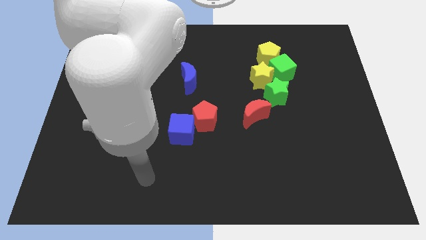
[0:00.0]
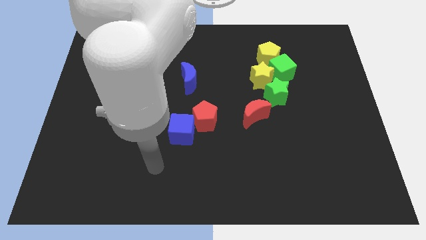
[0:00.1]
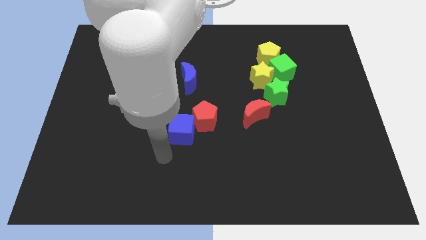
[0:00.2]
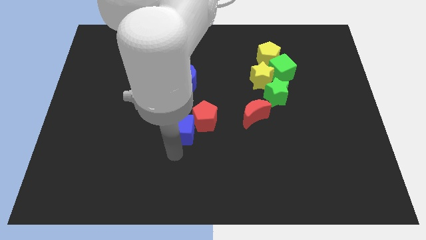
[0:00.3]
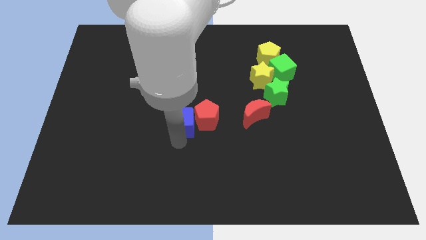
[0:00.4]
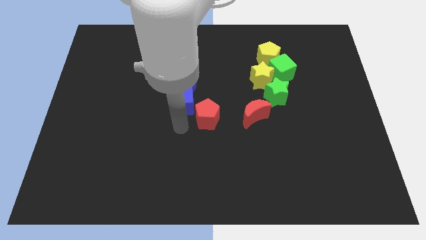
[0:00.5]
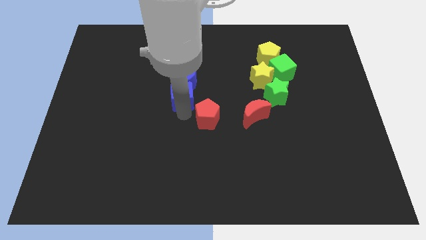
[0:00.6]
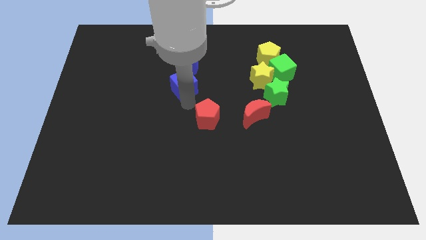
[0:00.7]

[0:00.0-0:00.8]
separate the red pentagon from the blue cube

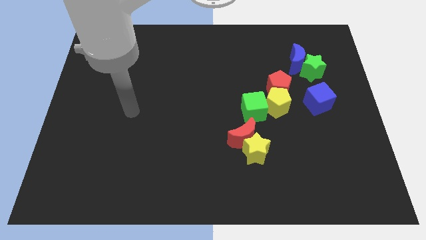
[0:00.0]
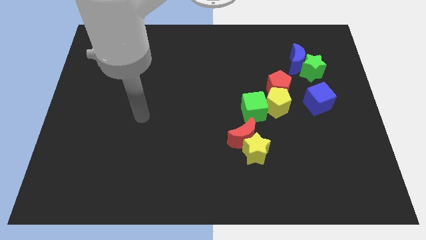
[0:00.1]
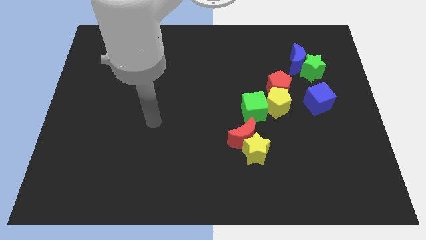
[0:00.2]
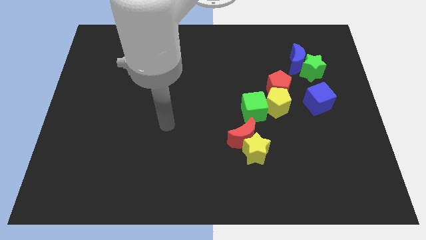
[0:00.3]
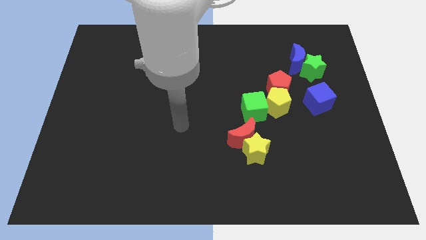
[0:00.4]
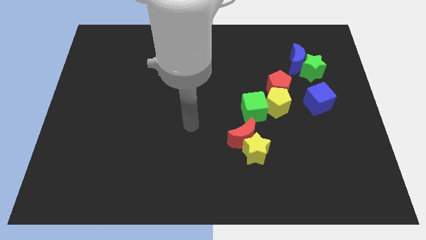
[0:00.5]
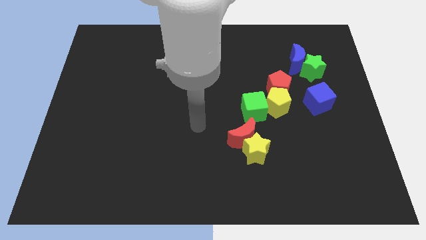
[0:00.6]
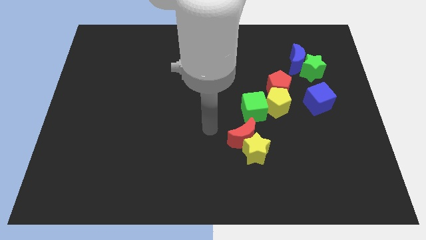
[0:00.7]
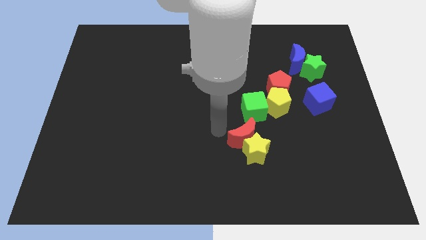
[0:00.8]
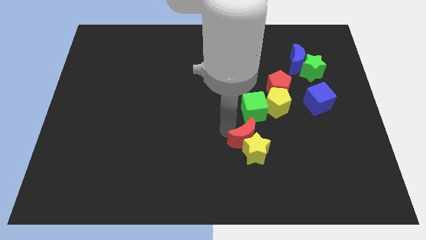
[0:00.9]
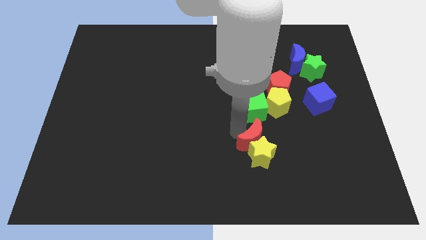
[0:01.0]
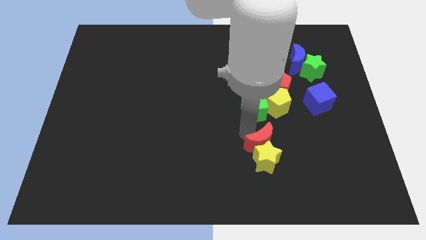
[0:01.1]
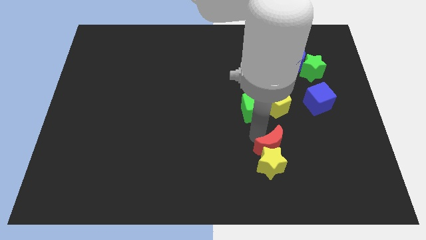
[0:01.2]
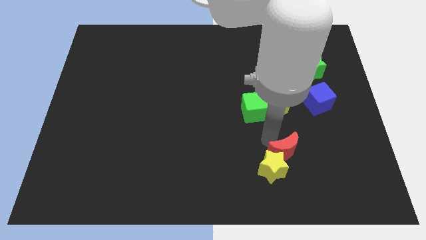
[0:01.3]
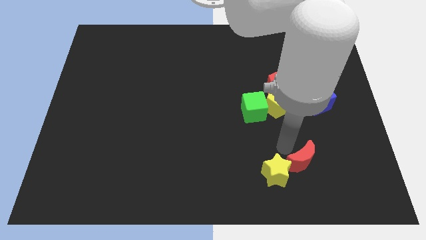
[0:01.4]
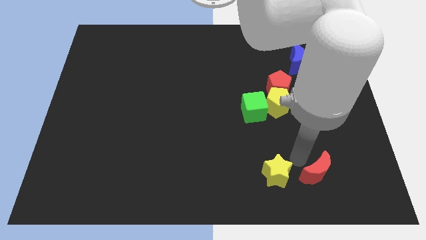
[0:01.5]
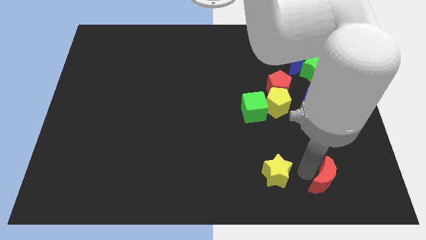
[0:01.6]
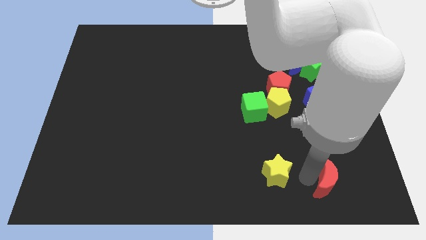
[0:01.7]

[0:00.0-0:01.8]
pull the yellow star apart from the red moon

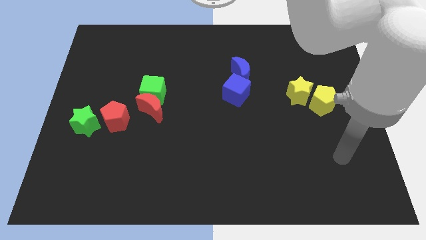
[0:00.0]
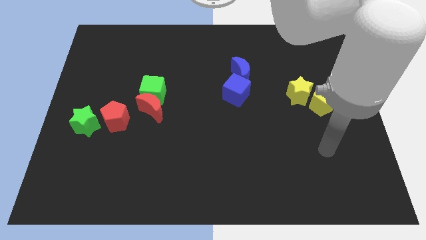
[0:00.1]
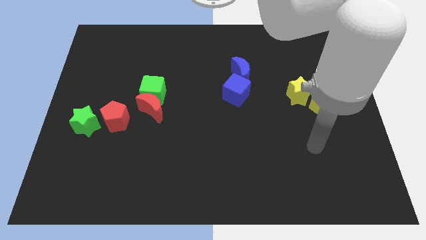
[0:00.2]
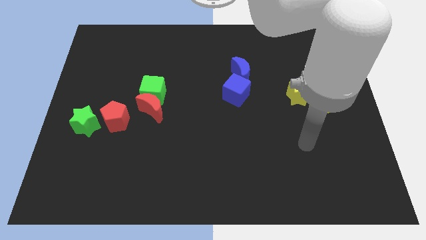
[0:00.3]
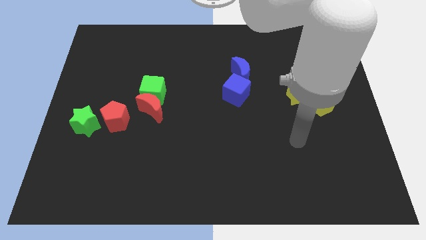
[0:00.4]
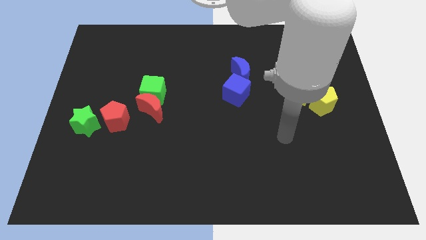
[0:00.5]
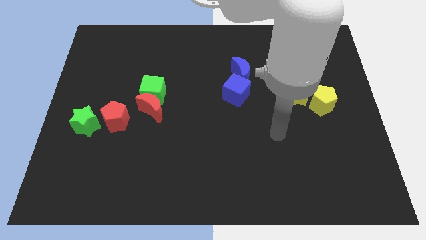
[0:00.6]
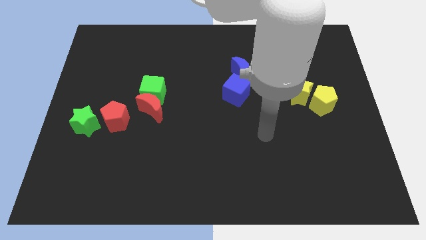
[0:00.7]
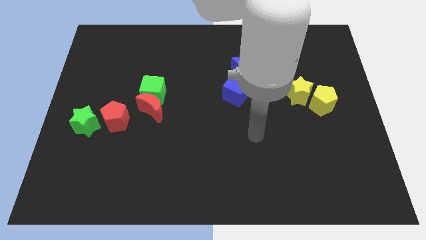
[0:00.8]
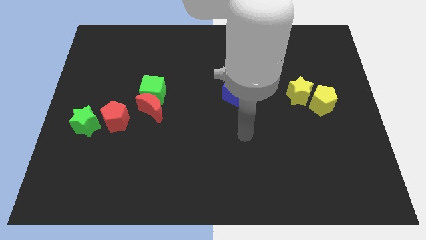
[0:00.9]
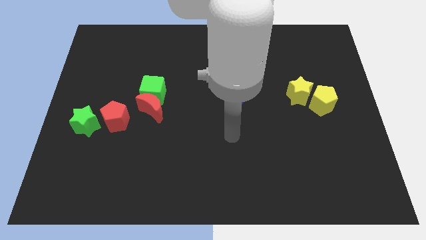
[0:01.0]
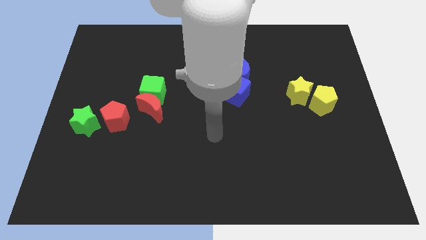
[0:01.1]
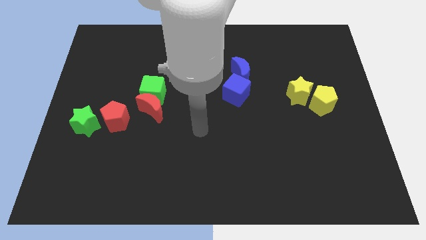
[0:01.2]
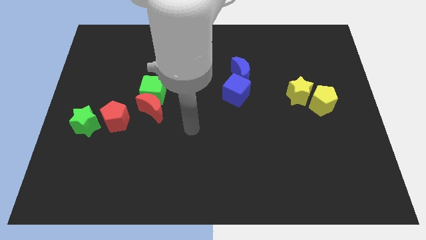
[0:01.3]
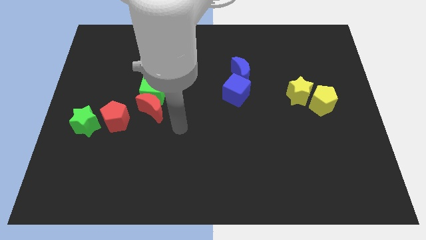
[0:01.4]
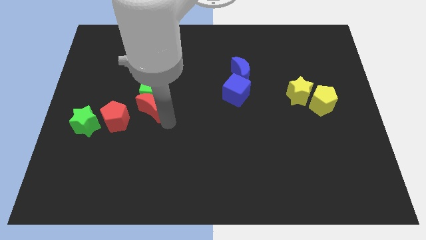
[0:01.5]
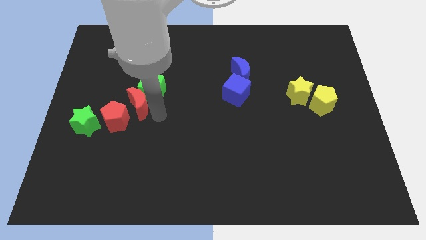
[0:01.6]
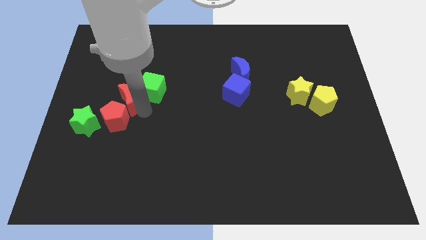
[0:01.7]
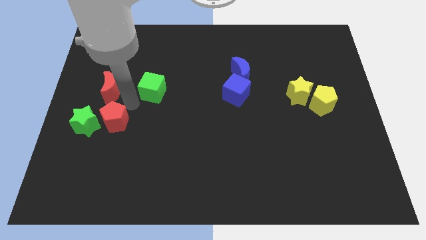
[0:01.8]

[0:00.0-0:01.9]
pull the green cube apart from the red moon

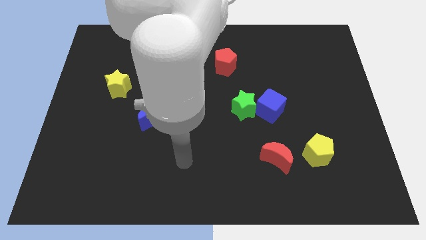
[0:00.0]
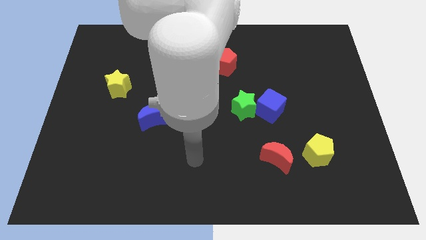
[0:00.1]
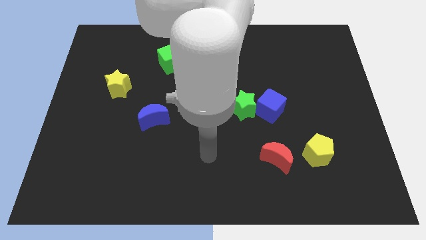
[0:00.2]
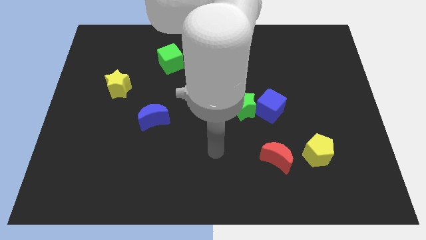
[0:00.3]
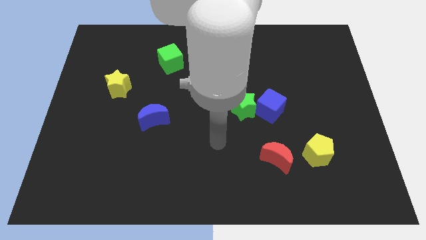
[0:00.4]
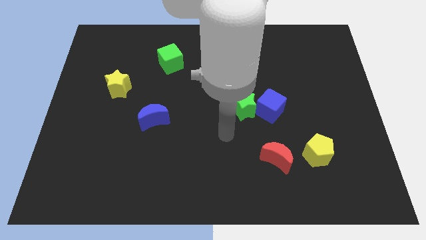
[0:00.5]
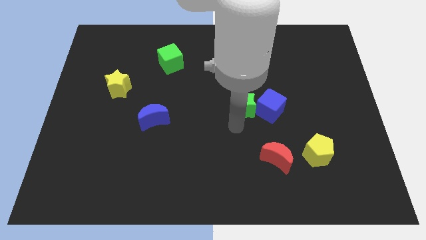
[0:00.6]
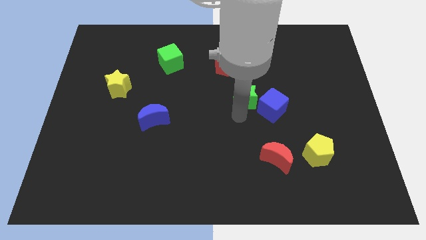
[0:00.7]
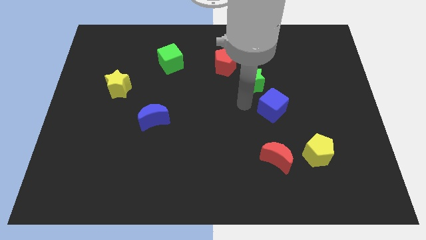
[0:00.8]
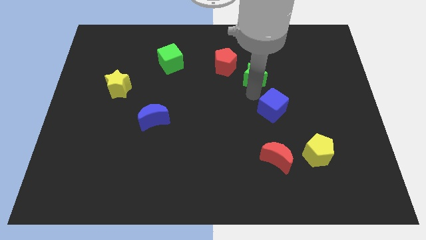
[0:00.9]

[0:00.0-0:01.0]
pull the blue cube apart from the green star

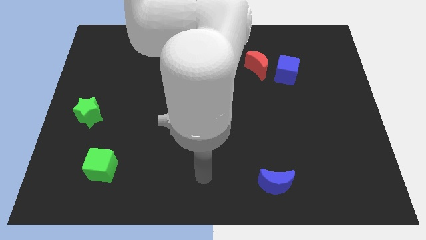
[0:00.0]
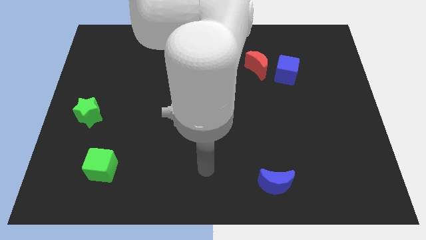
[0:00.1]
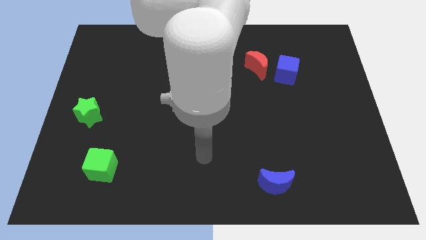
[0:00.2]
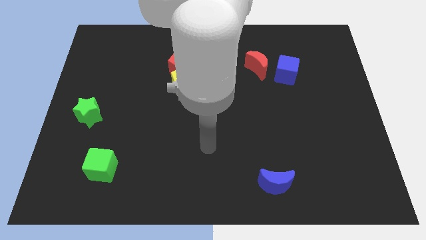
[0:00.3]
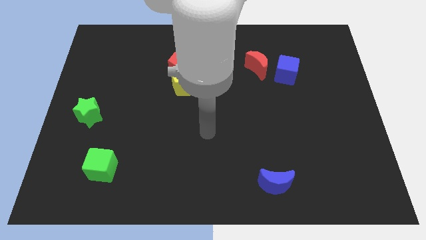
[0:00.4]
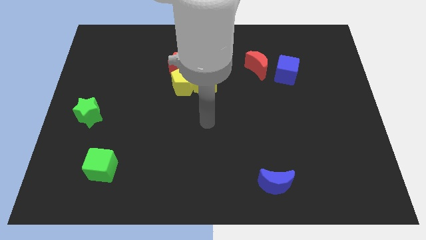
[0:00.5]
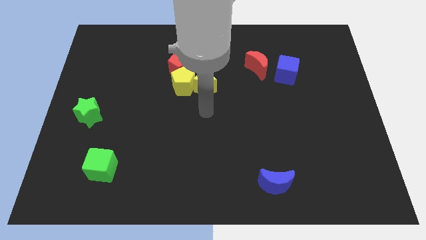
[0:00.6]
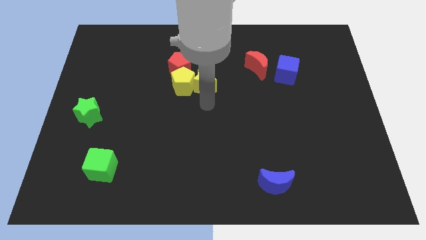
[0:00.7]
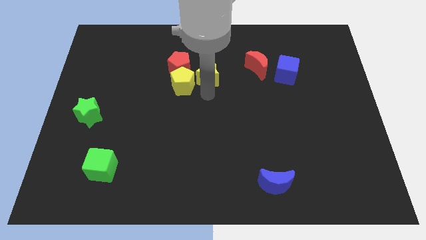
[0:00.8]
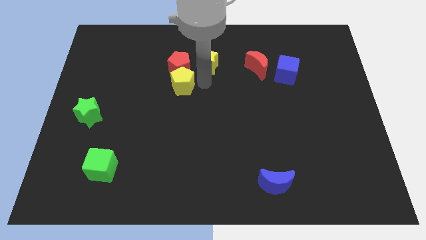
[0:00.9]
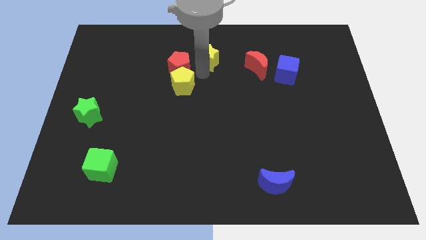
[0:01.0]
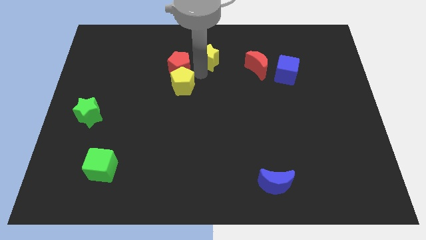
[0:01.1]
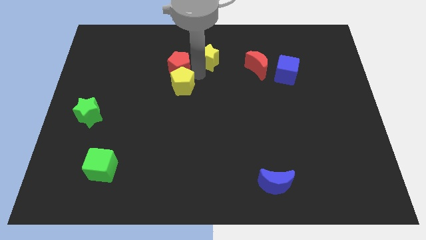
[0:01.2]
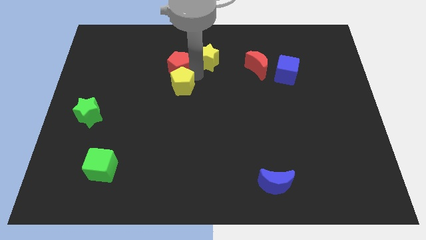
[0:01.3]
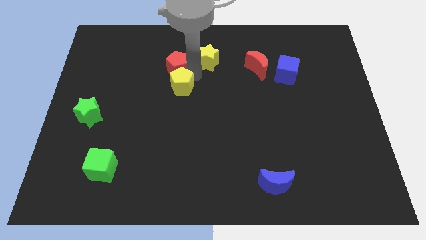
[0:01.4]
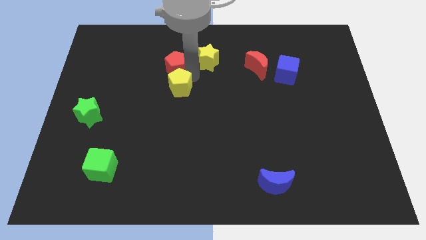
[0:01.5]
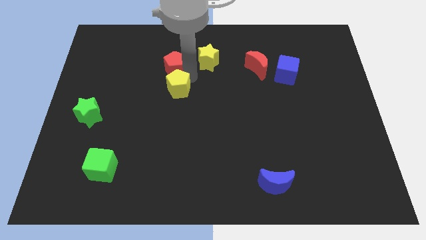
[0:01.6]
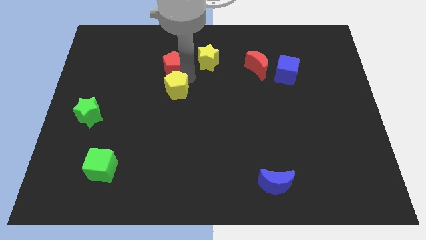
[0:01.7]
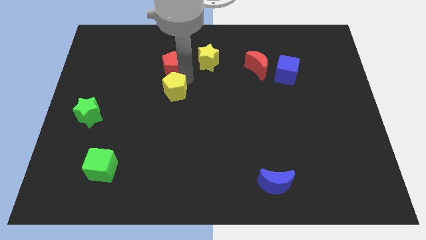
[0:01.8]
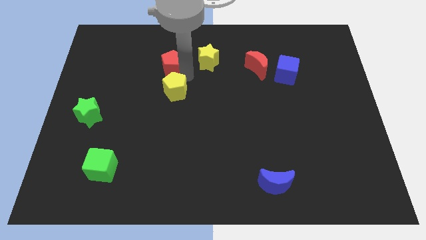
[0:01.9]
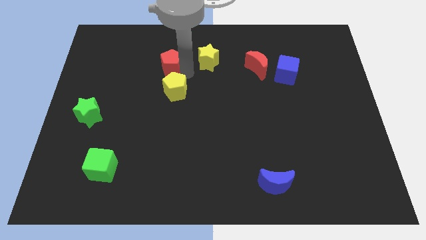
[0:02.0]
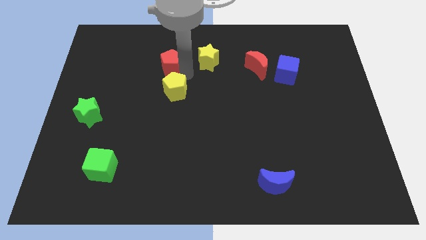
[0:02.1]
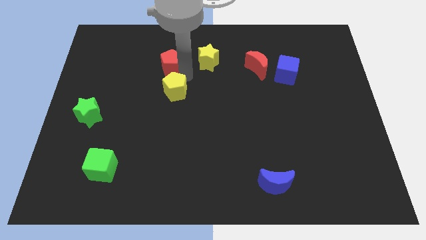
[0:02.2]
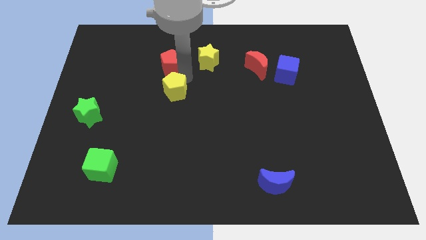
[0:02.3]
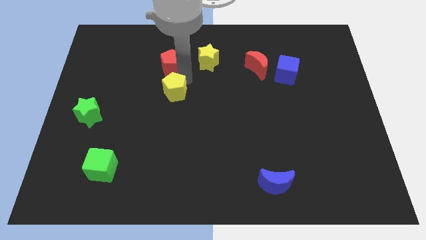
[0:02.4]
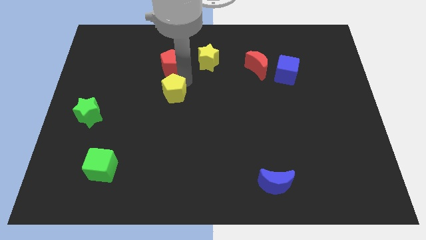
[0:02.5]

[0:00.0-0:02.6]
move the yellow pentagon away from the yellow star and red pentagon

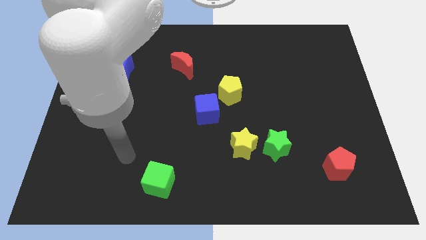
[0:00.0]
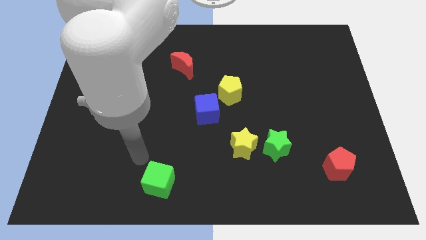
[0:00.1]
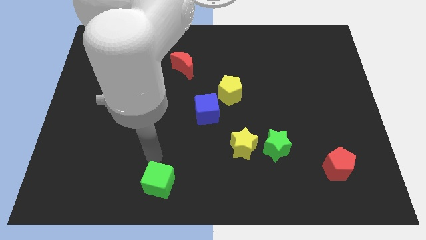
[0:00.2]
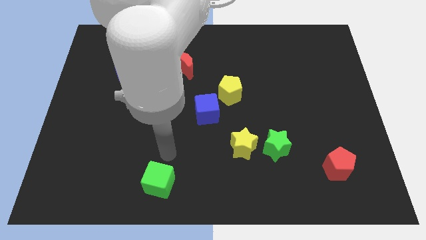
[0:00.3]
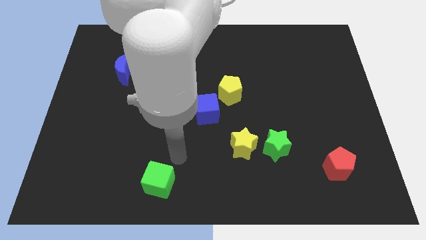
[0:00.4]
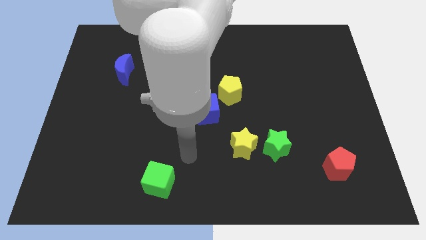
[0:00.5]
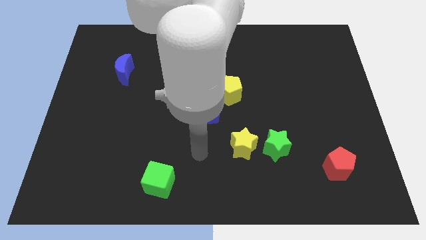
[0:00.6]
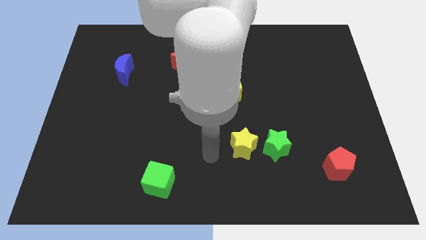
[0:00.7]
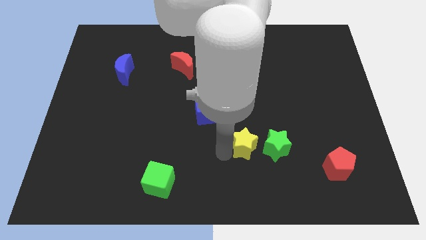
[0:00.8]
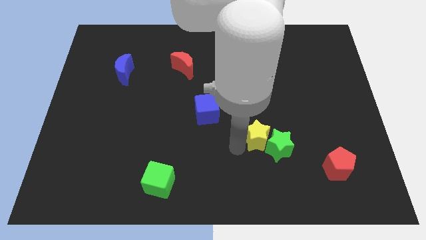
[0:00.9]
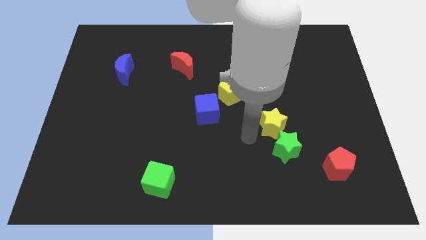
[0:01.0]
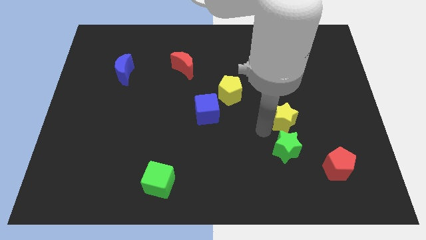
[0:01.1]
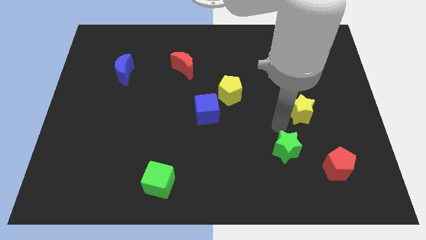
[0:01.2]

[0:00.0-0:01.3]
move the green star away from the yellow star
